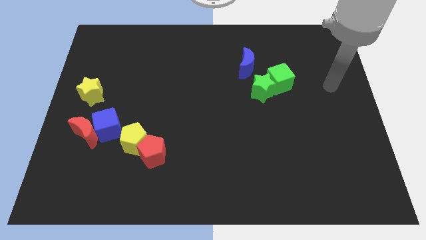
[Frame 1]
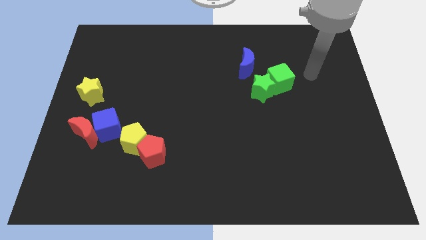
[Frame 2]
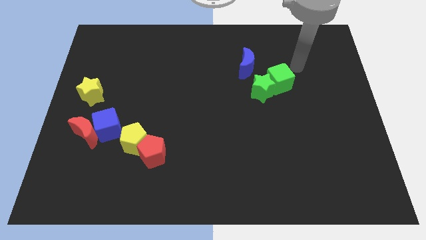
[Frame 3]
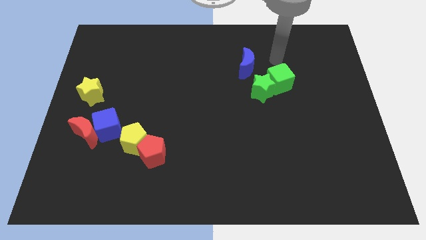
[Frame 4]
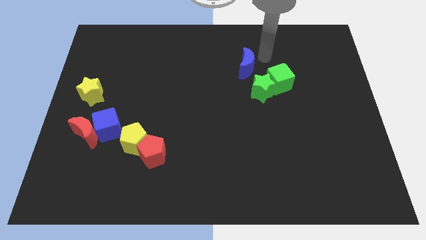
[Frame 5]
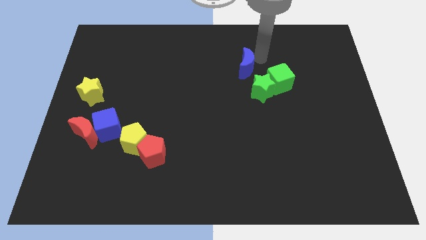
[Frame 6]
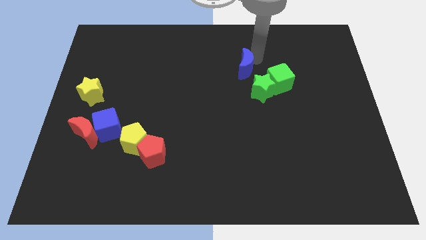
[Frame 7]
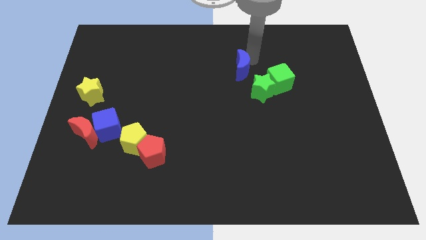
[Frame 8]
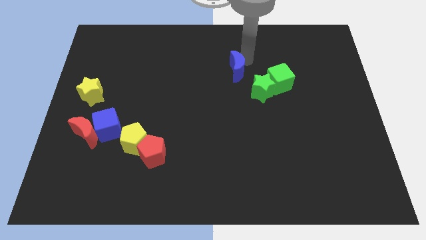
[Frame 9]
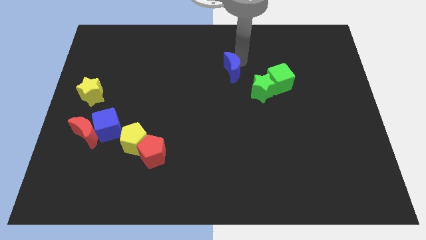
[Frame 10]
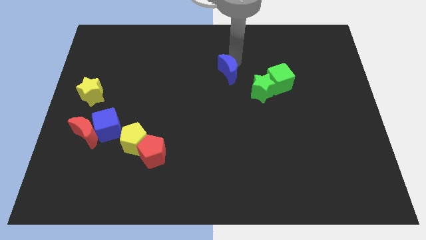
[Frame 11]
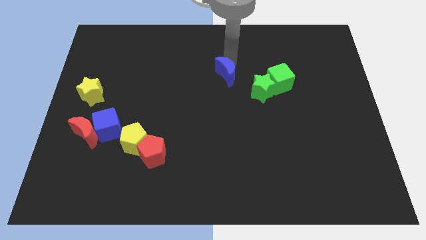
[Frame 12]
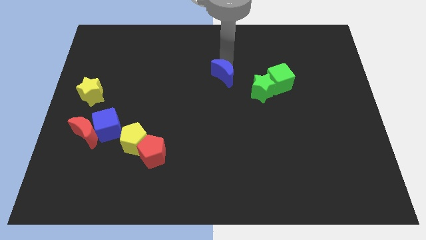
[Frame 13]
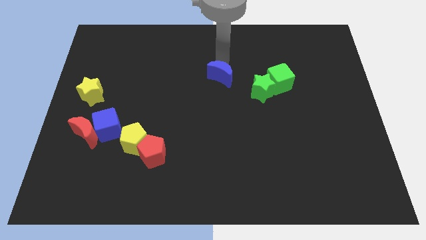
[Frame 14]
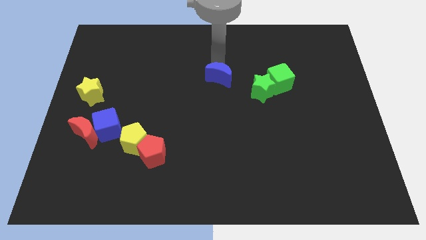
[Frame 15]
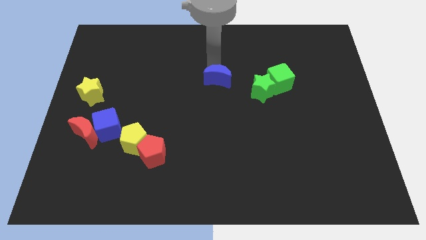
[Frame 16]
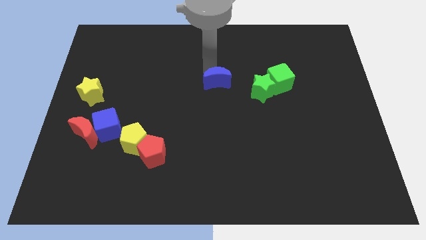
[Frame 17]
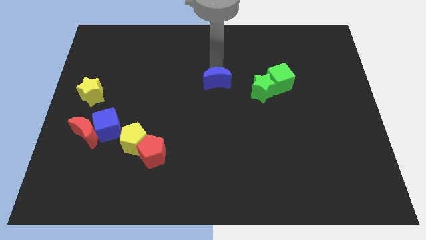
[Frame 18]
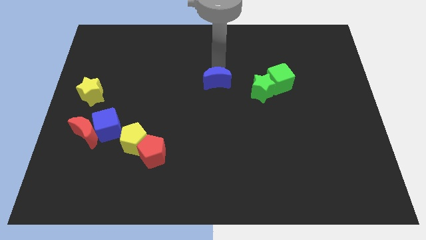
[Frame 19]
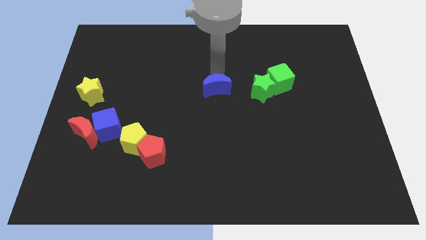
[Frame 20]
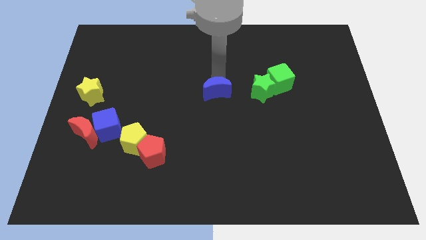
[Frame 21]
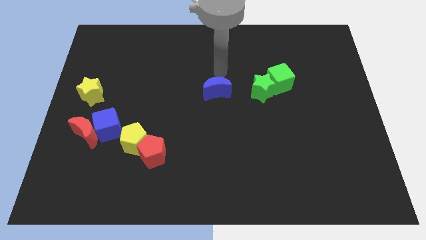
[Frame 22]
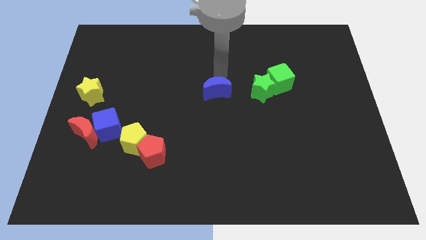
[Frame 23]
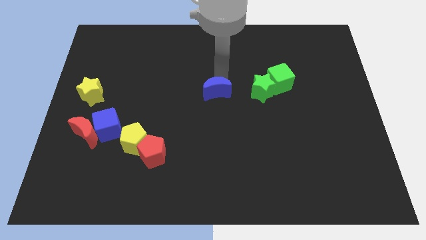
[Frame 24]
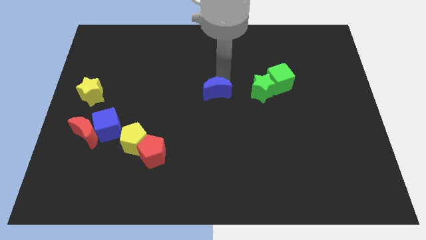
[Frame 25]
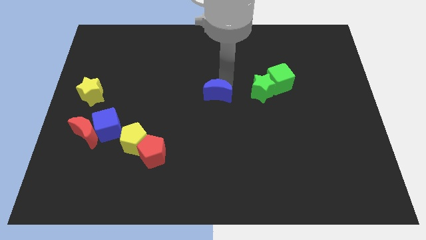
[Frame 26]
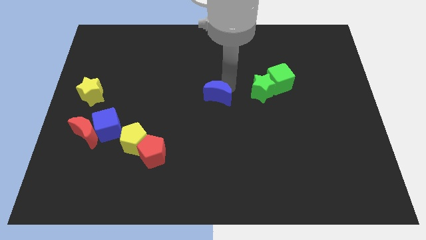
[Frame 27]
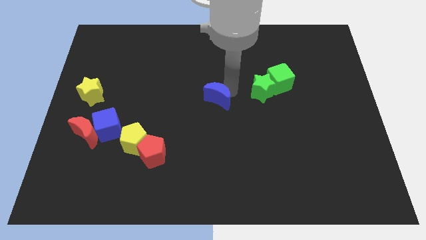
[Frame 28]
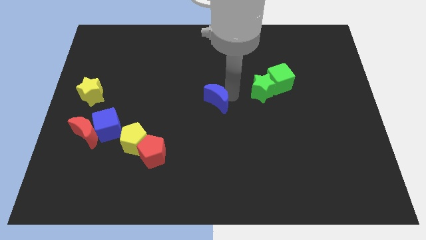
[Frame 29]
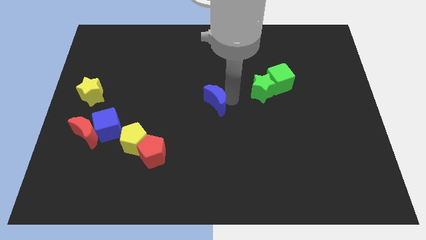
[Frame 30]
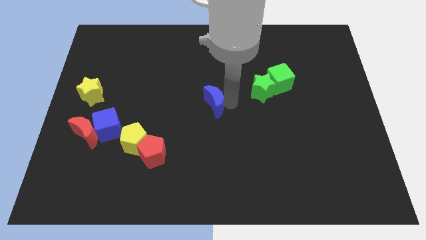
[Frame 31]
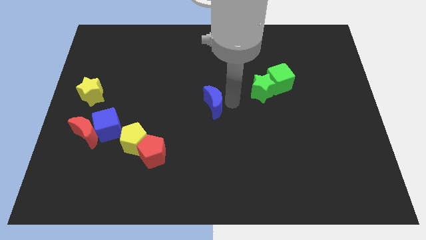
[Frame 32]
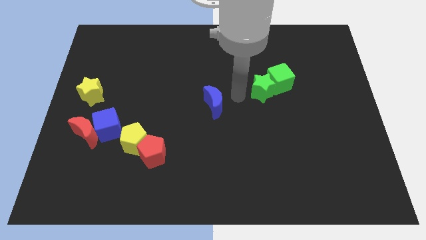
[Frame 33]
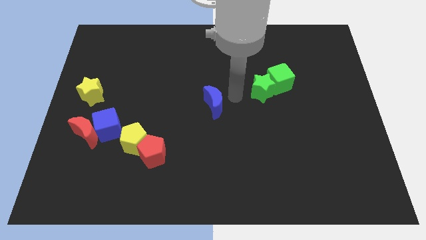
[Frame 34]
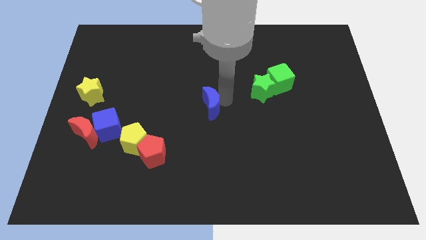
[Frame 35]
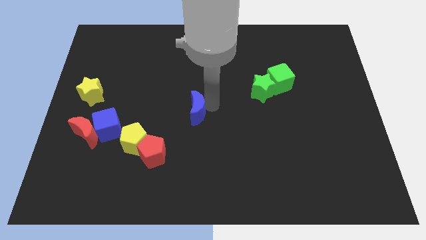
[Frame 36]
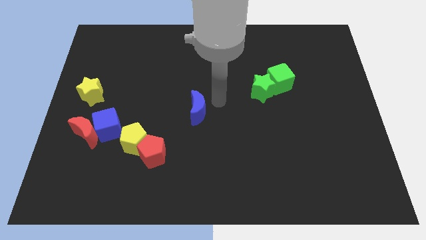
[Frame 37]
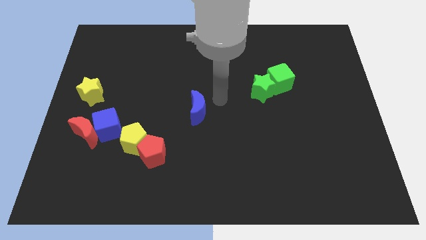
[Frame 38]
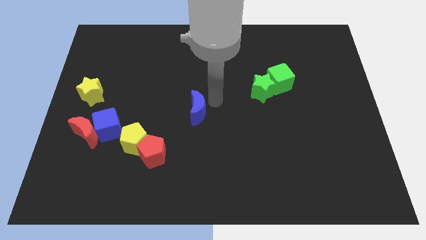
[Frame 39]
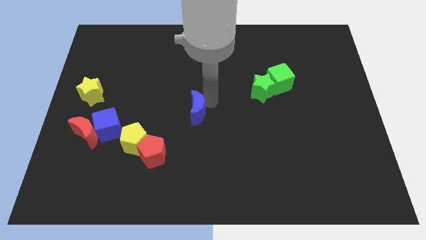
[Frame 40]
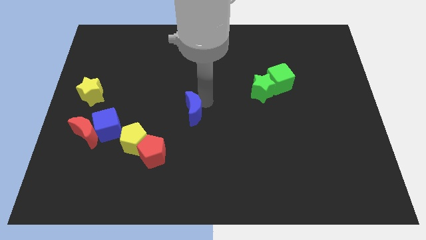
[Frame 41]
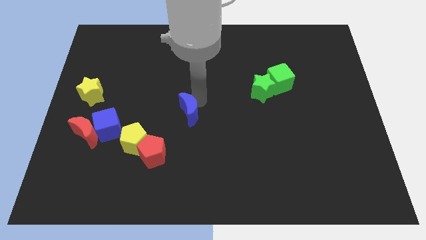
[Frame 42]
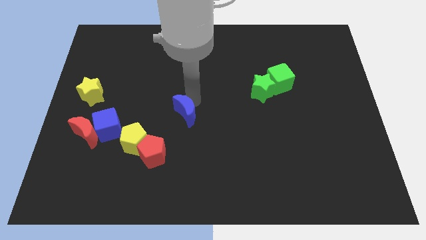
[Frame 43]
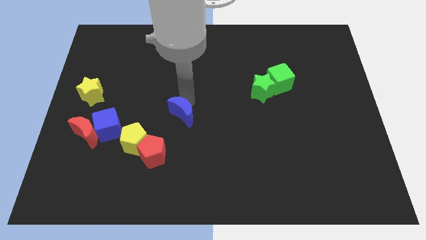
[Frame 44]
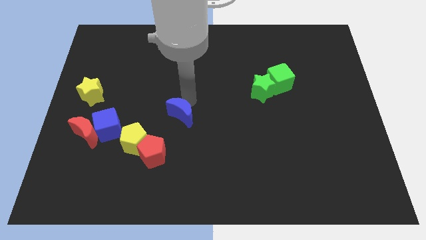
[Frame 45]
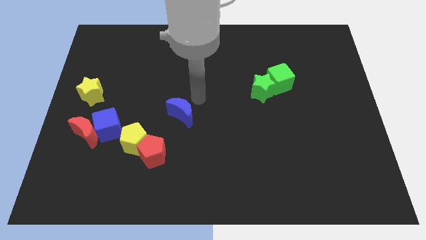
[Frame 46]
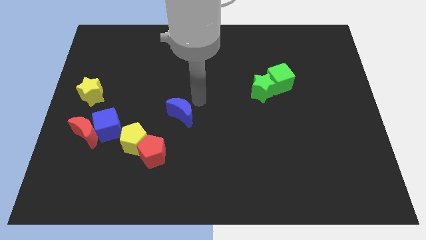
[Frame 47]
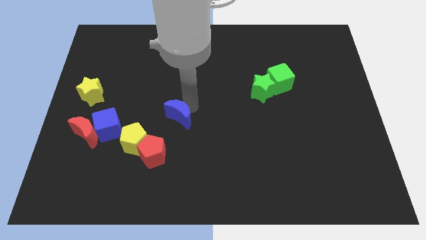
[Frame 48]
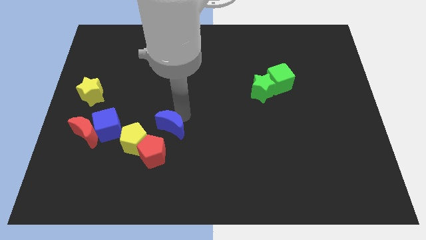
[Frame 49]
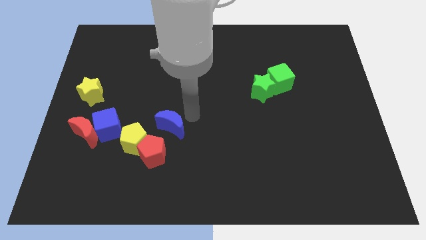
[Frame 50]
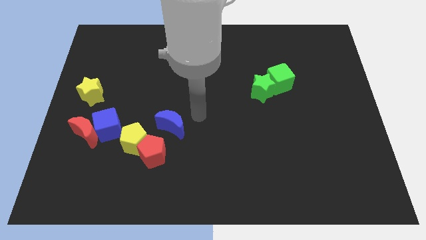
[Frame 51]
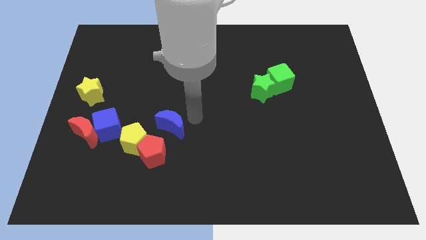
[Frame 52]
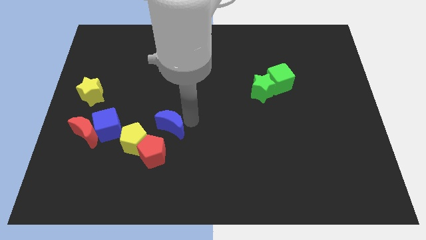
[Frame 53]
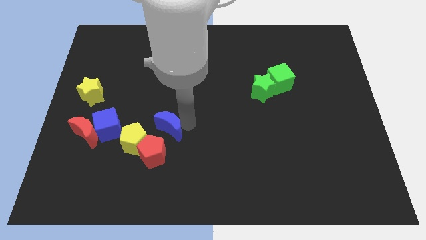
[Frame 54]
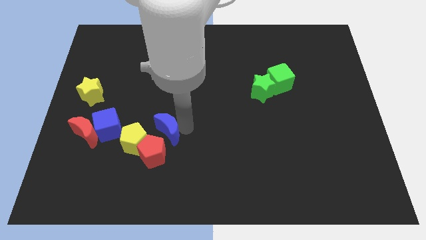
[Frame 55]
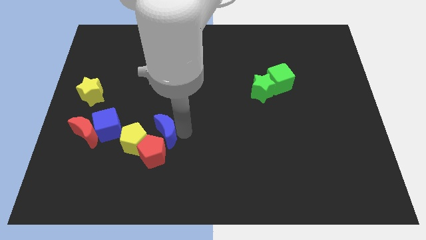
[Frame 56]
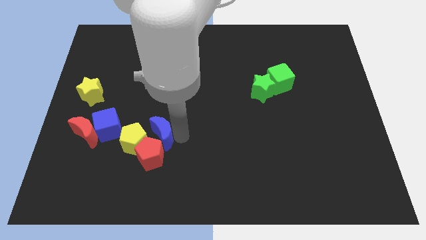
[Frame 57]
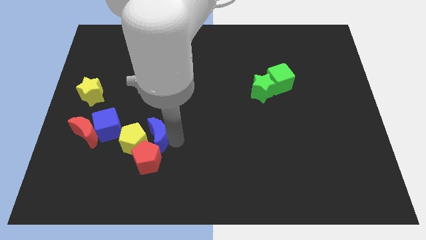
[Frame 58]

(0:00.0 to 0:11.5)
move the blue moon to the right side of the red moon

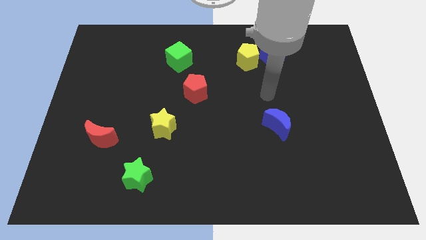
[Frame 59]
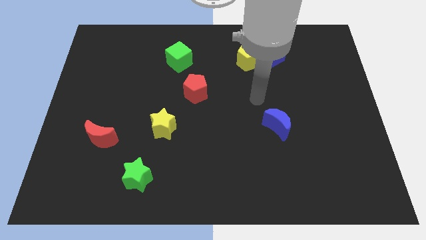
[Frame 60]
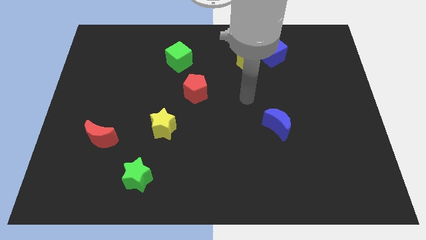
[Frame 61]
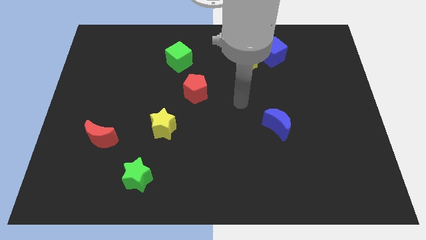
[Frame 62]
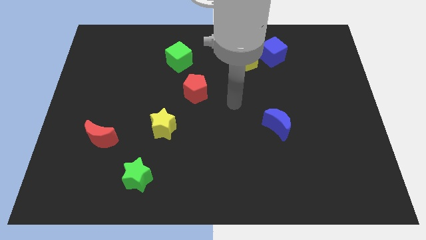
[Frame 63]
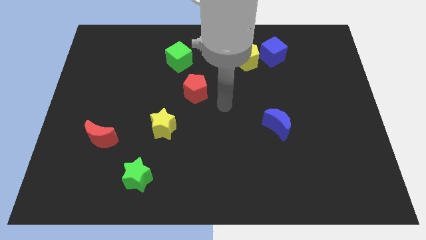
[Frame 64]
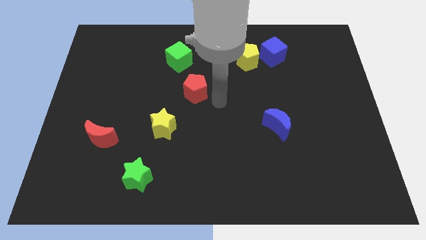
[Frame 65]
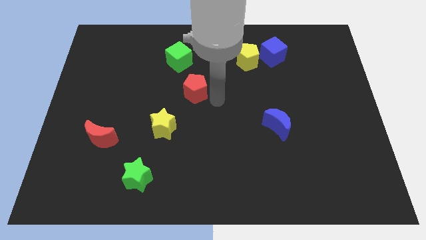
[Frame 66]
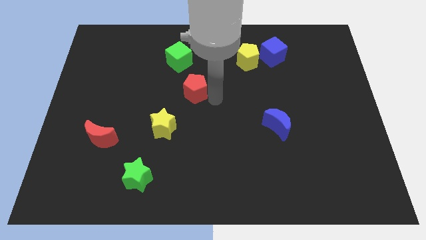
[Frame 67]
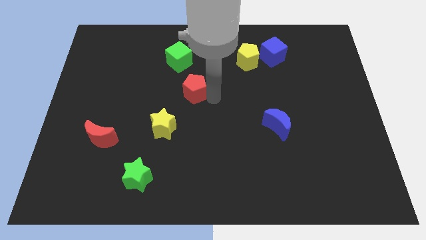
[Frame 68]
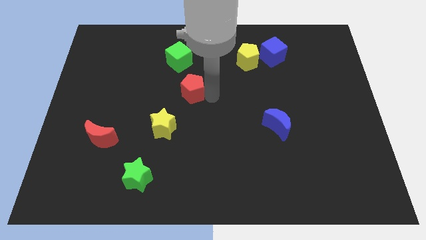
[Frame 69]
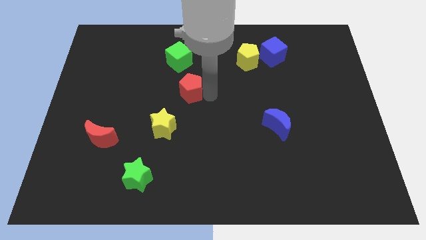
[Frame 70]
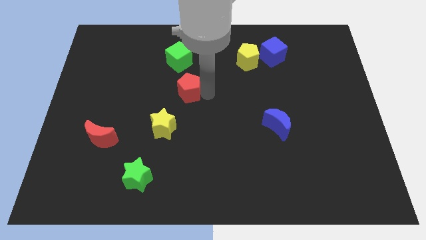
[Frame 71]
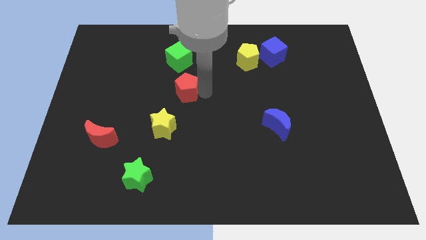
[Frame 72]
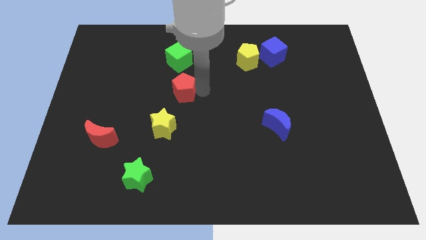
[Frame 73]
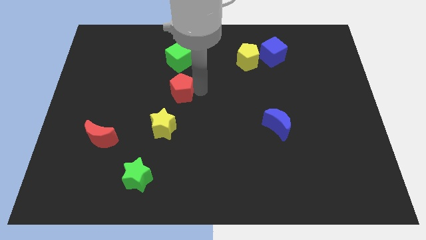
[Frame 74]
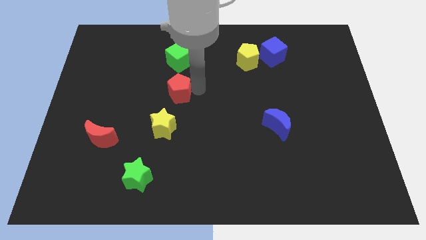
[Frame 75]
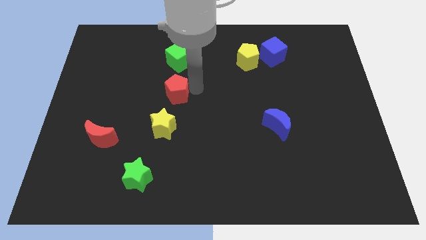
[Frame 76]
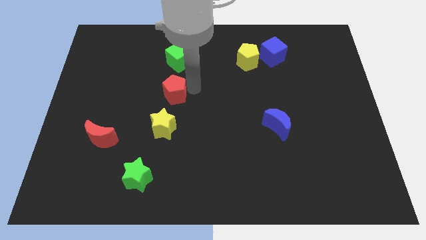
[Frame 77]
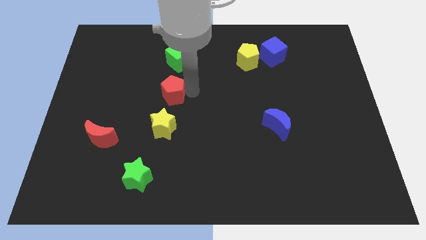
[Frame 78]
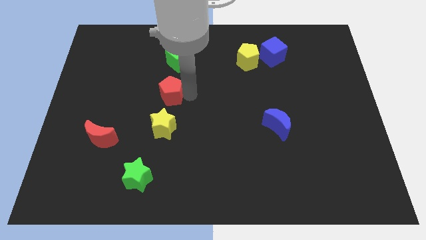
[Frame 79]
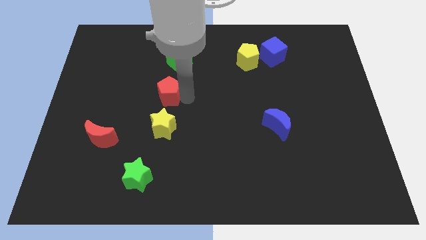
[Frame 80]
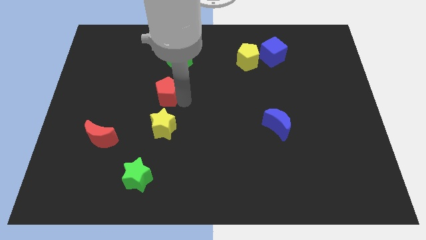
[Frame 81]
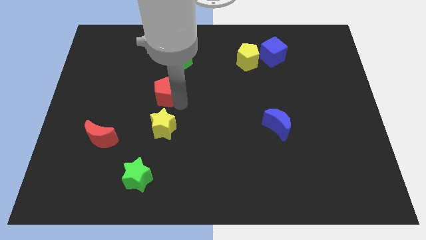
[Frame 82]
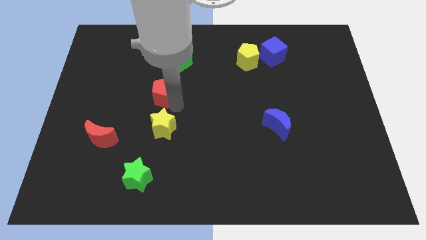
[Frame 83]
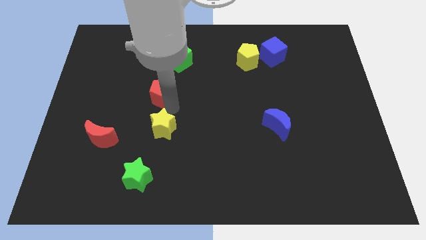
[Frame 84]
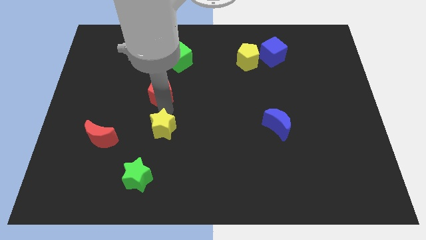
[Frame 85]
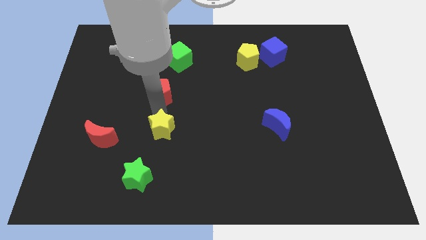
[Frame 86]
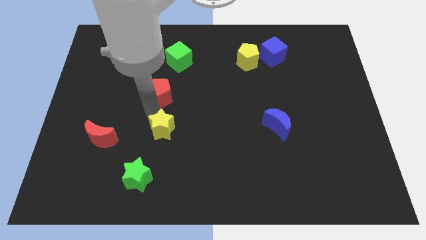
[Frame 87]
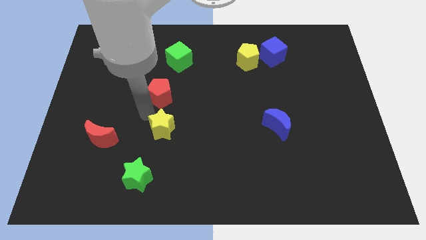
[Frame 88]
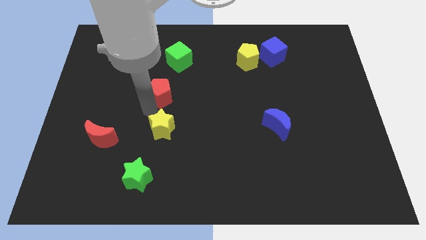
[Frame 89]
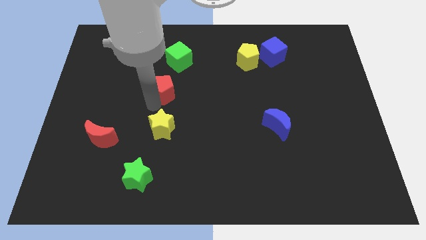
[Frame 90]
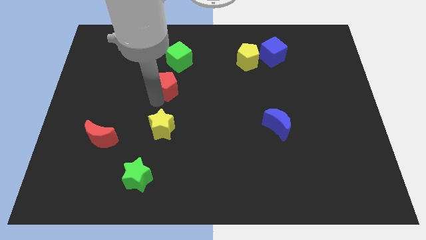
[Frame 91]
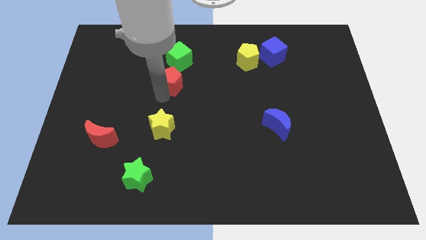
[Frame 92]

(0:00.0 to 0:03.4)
push the red pentagon to the bottom left side of the green cube
